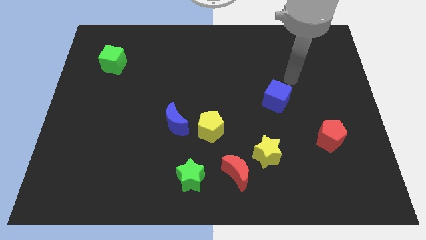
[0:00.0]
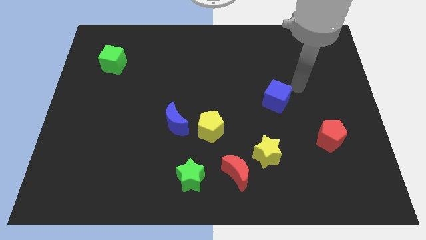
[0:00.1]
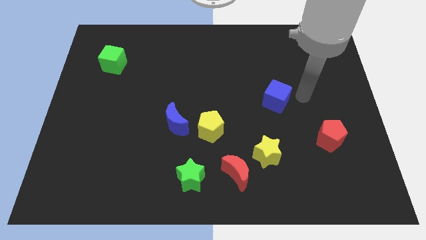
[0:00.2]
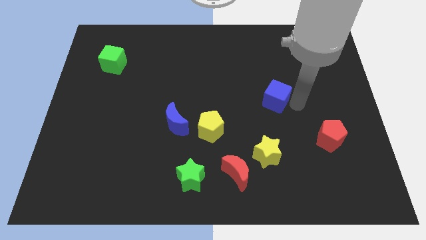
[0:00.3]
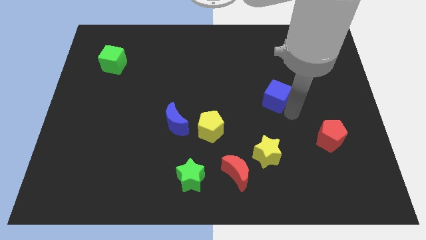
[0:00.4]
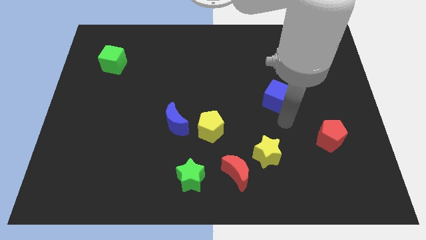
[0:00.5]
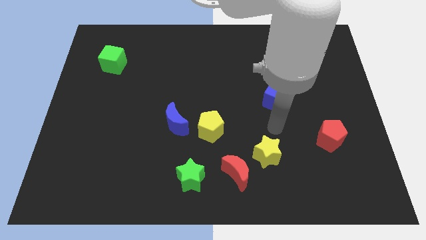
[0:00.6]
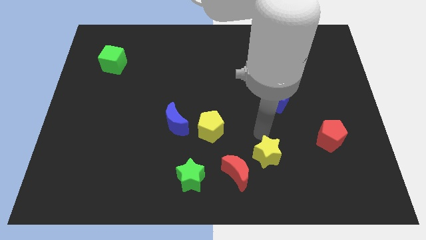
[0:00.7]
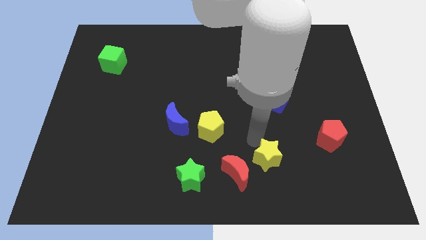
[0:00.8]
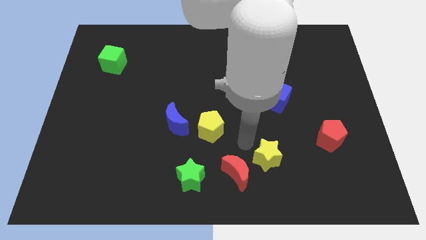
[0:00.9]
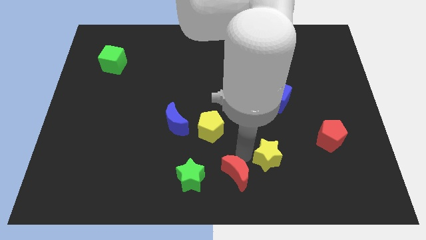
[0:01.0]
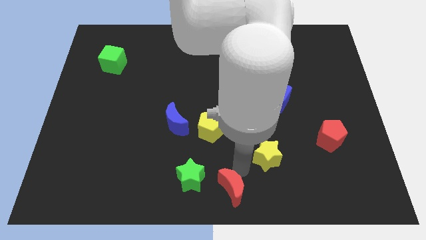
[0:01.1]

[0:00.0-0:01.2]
separate the yellow star from the red moon

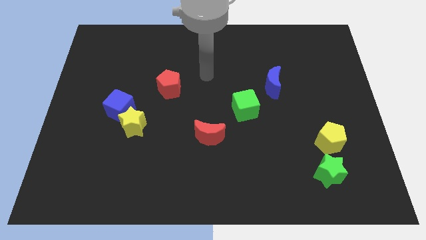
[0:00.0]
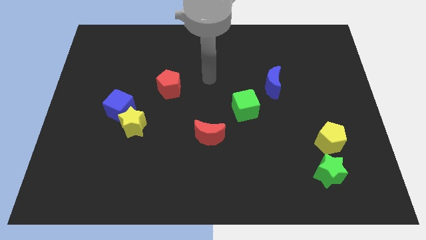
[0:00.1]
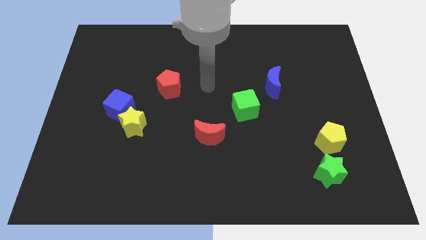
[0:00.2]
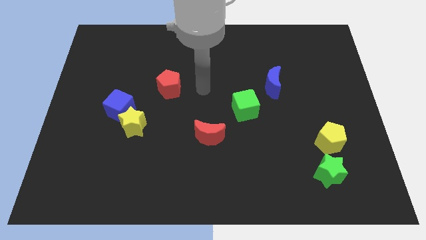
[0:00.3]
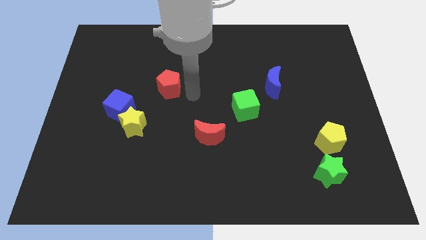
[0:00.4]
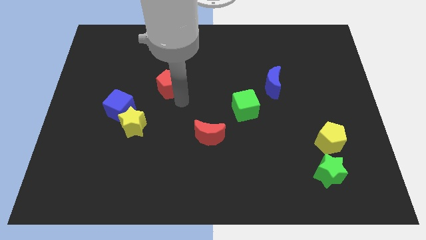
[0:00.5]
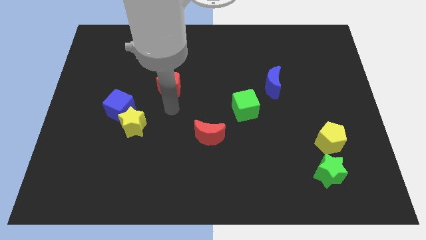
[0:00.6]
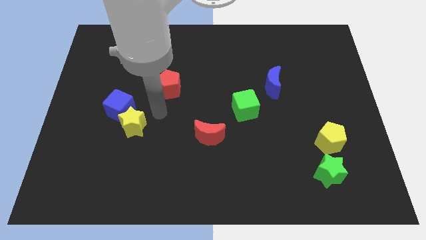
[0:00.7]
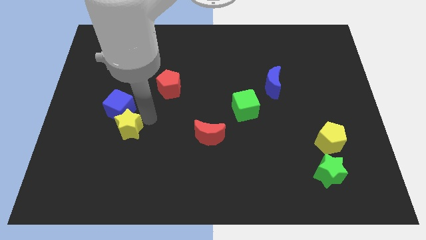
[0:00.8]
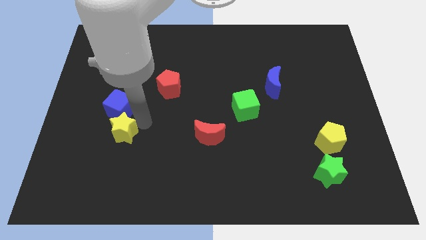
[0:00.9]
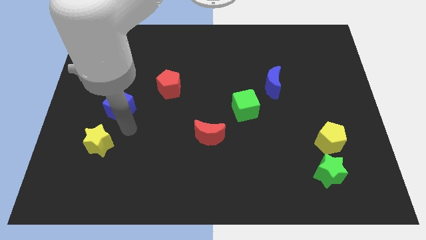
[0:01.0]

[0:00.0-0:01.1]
separate the blue cube from the yellow star

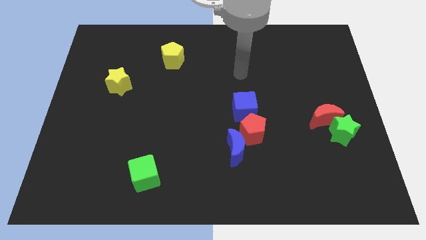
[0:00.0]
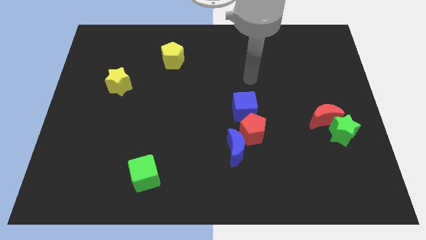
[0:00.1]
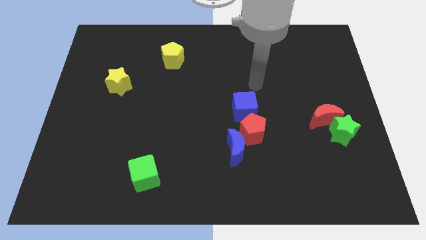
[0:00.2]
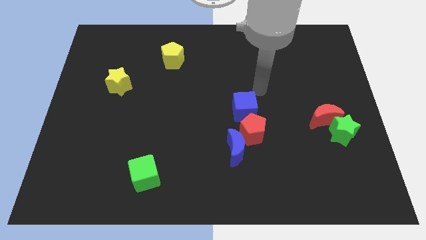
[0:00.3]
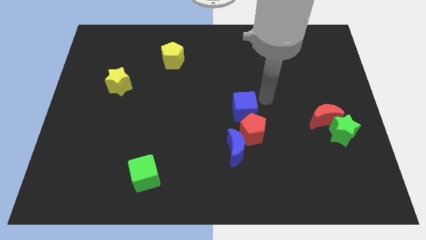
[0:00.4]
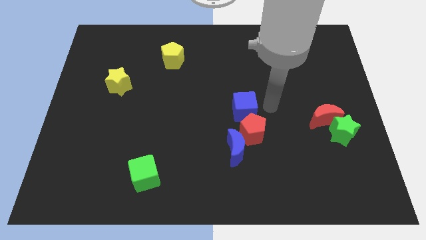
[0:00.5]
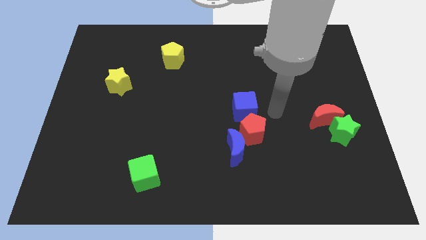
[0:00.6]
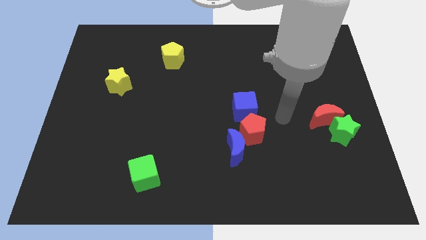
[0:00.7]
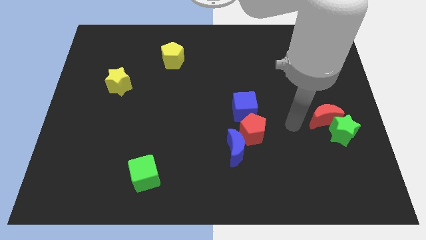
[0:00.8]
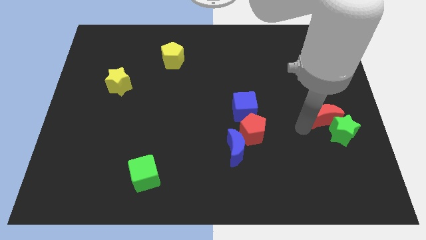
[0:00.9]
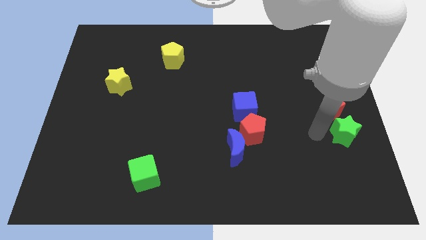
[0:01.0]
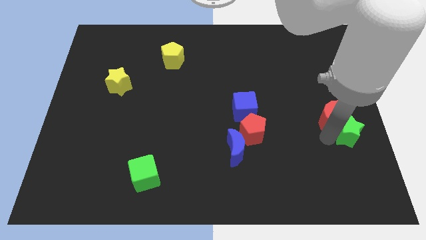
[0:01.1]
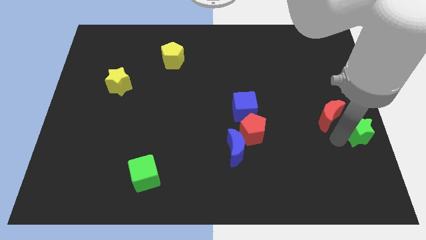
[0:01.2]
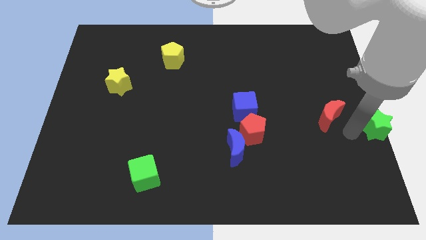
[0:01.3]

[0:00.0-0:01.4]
separate the red moon from the green star

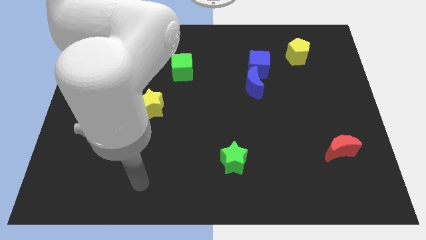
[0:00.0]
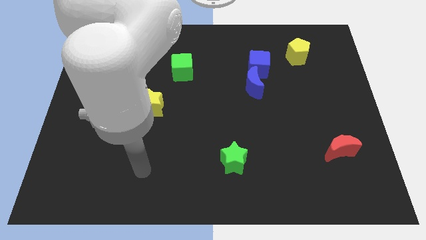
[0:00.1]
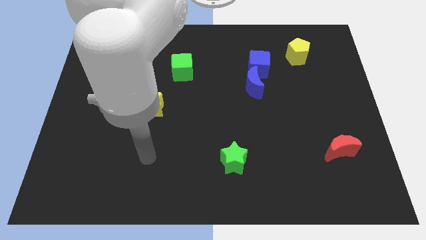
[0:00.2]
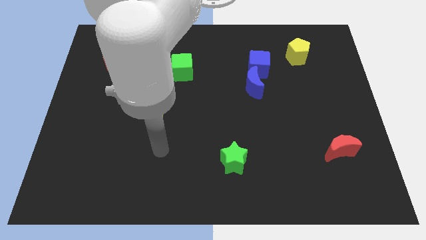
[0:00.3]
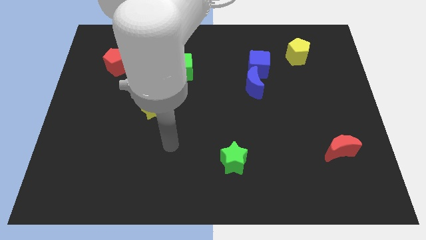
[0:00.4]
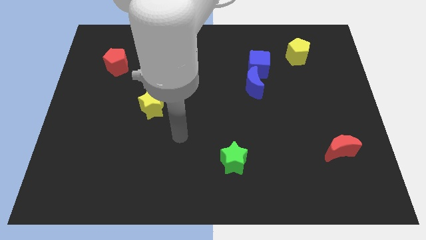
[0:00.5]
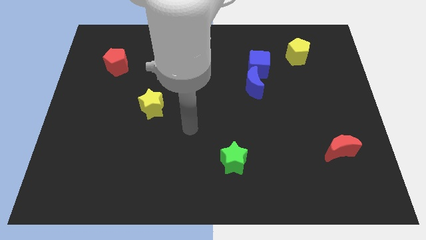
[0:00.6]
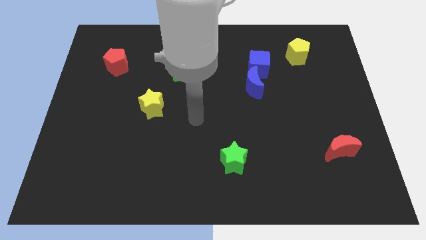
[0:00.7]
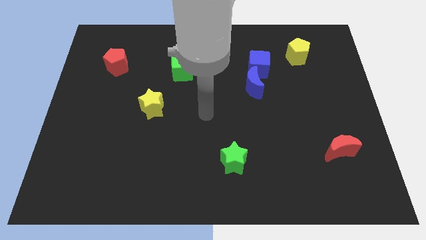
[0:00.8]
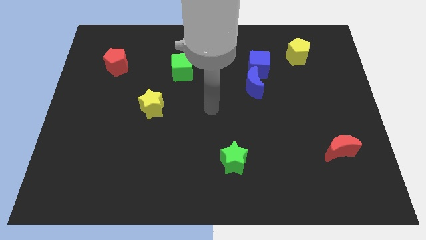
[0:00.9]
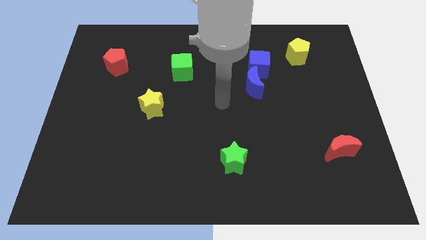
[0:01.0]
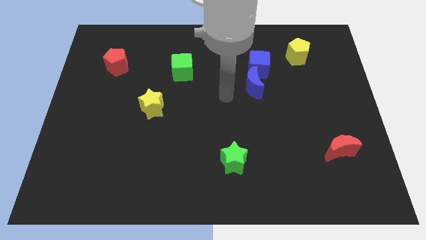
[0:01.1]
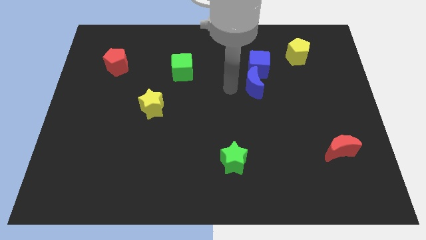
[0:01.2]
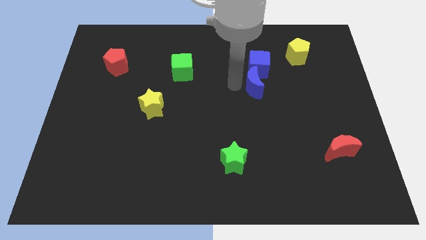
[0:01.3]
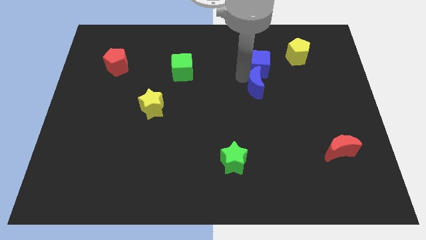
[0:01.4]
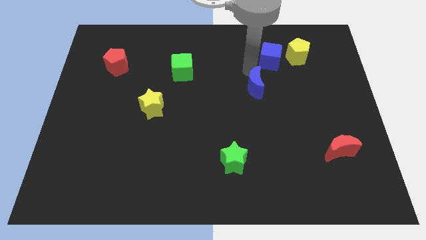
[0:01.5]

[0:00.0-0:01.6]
move the blue moon away from the blue cube

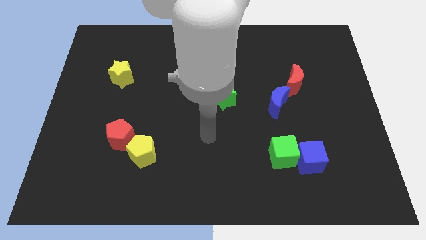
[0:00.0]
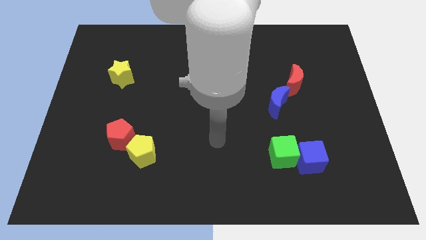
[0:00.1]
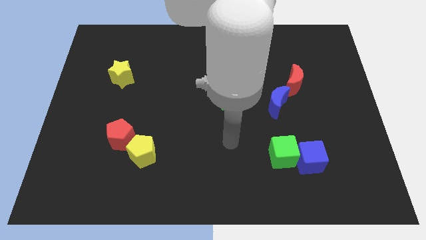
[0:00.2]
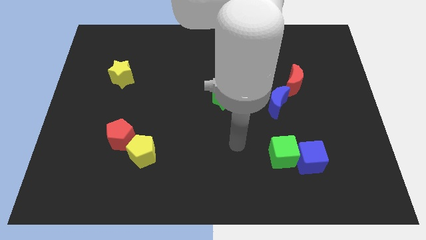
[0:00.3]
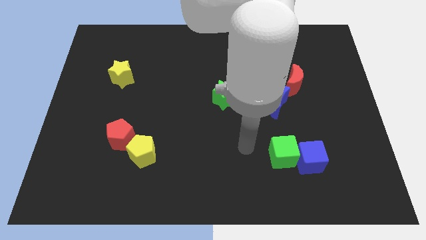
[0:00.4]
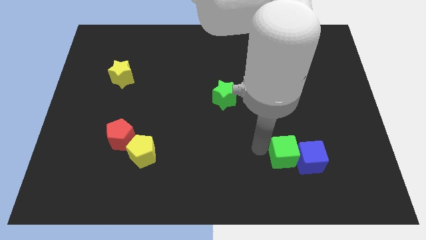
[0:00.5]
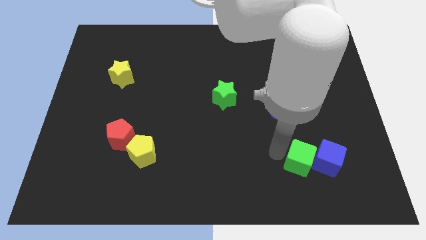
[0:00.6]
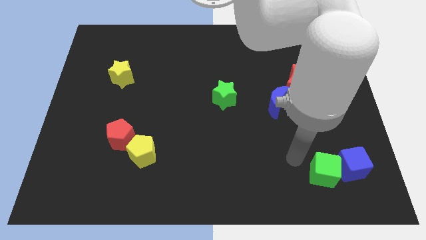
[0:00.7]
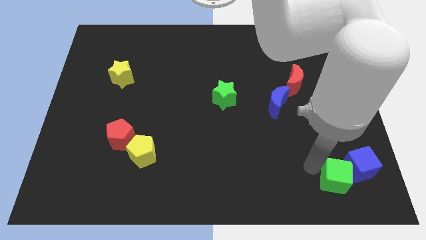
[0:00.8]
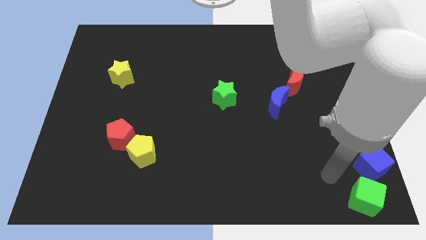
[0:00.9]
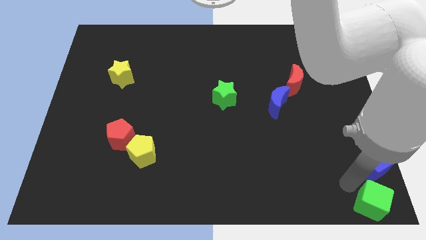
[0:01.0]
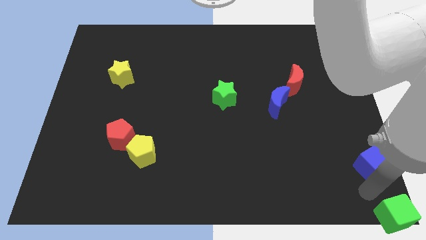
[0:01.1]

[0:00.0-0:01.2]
pull the blue cube apart from the green cube

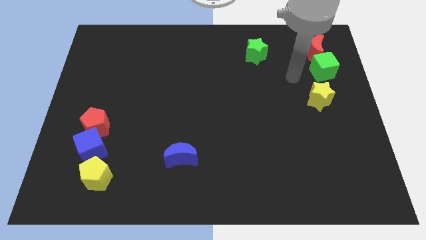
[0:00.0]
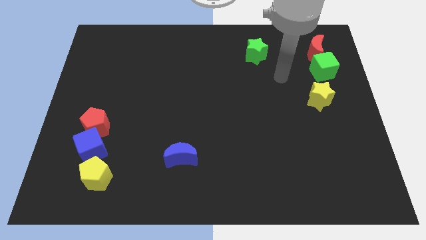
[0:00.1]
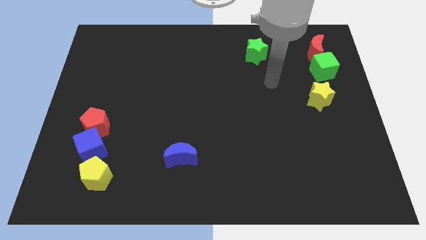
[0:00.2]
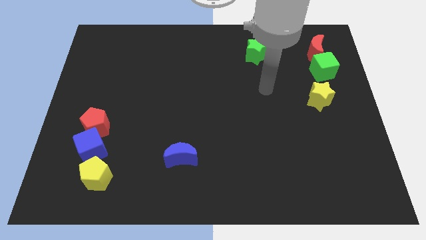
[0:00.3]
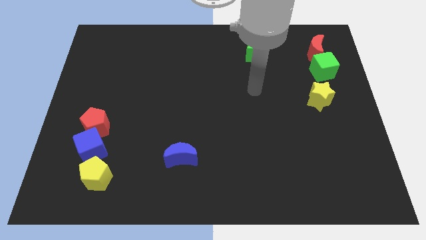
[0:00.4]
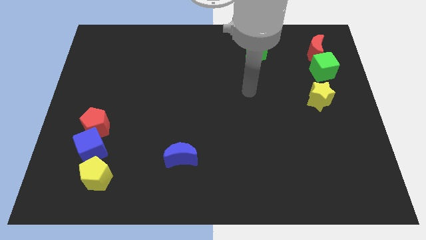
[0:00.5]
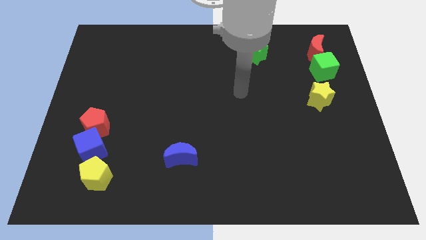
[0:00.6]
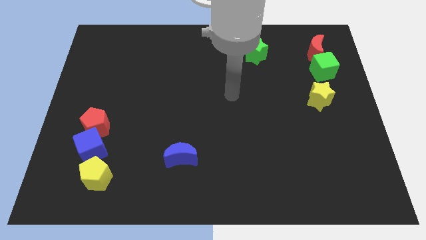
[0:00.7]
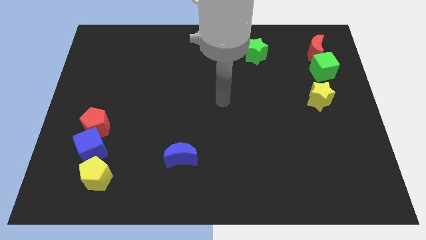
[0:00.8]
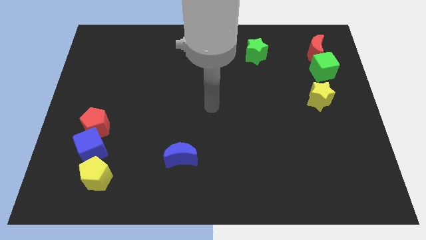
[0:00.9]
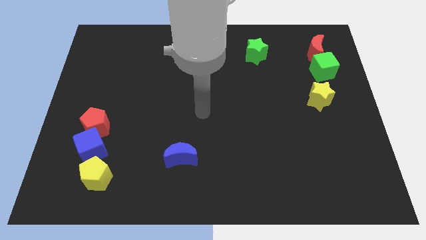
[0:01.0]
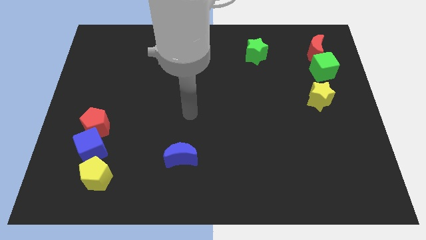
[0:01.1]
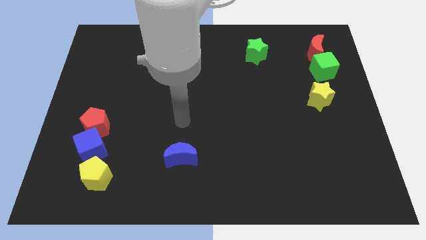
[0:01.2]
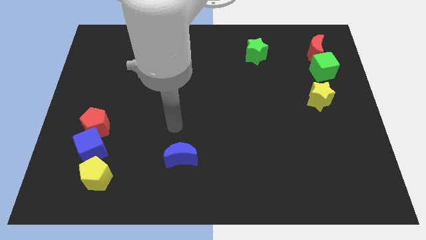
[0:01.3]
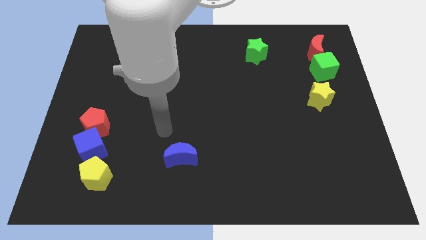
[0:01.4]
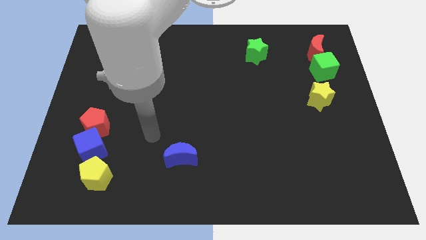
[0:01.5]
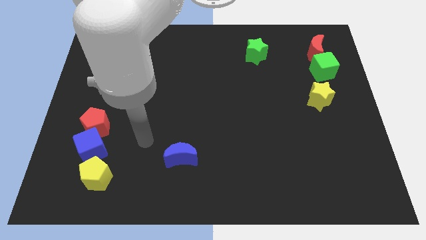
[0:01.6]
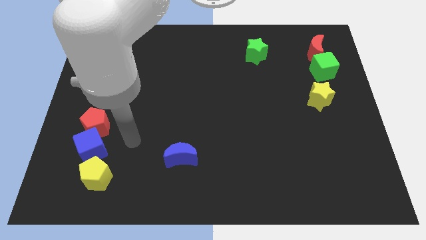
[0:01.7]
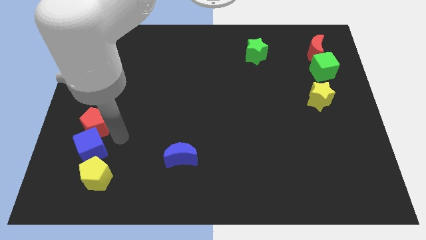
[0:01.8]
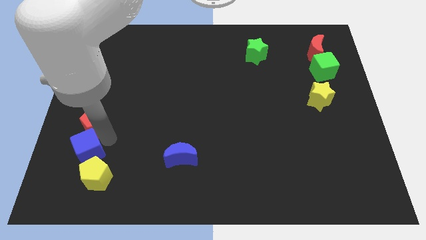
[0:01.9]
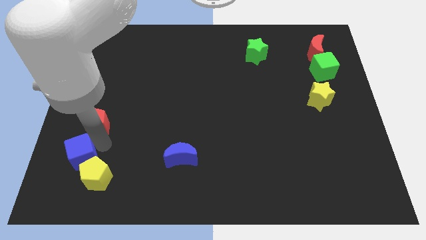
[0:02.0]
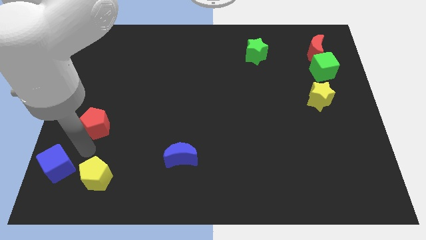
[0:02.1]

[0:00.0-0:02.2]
pull the red pentagon apart from the blue cube

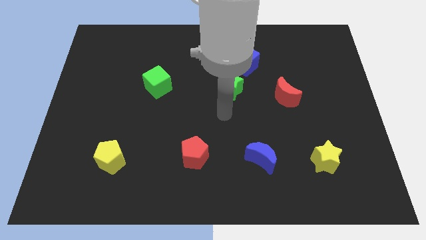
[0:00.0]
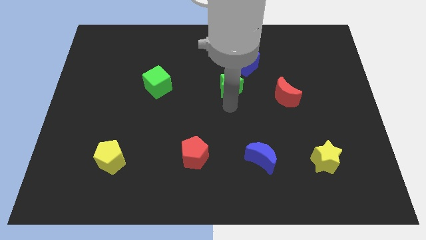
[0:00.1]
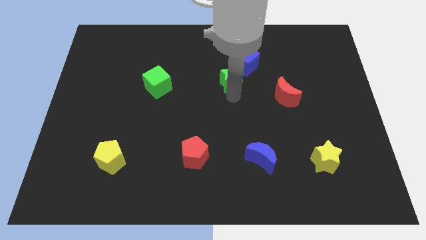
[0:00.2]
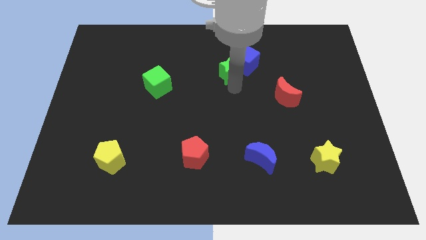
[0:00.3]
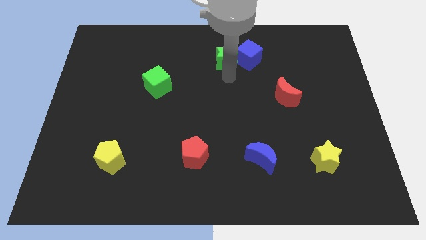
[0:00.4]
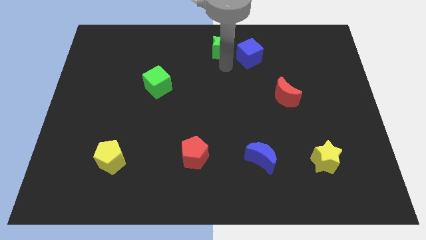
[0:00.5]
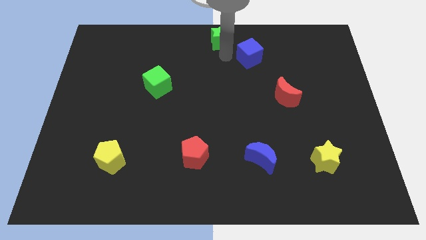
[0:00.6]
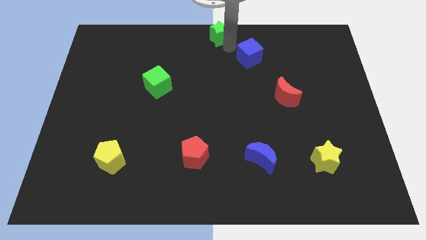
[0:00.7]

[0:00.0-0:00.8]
pull the blue cube apart from the green star
